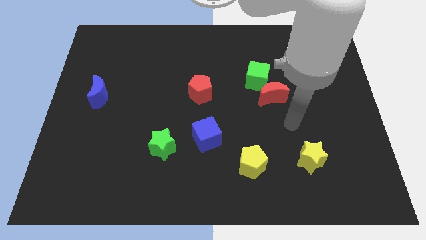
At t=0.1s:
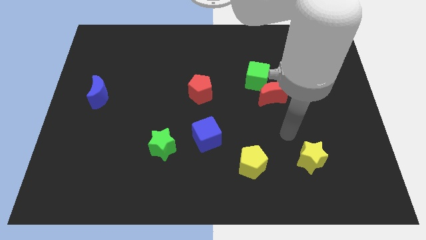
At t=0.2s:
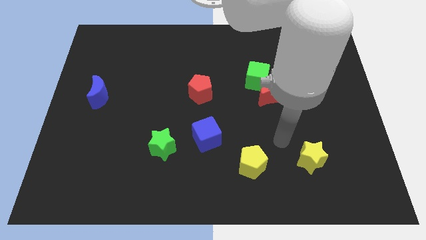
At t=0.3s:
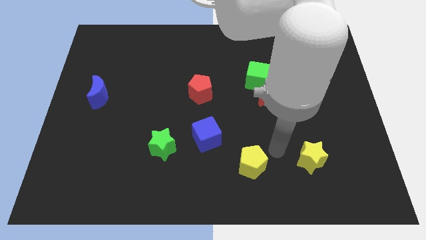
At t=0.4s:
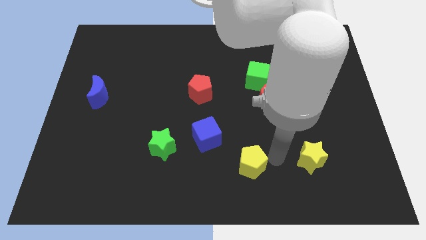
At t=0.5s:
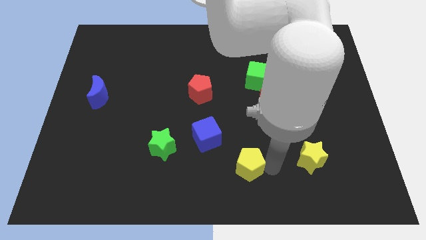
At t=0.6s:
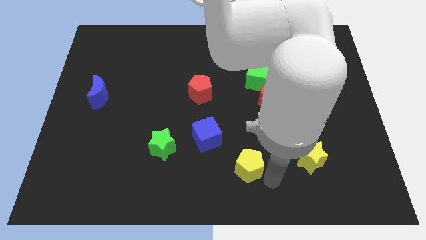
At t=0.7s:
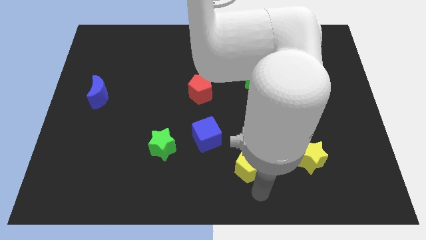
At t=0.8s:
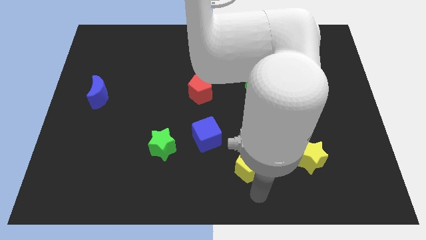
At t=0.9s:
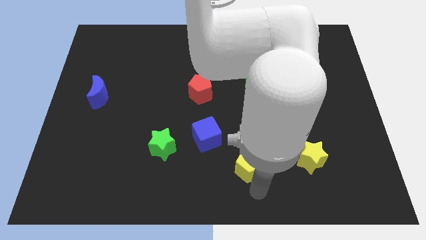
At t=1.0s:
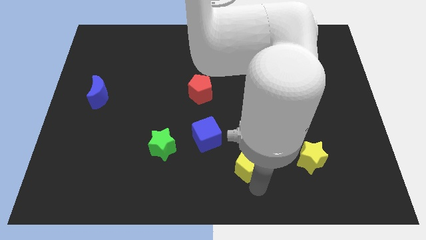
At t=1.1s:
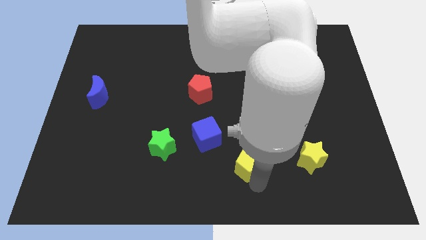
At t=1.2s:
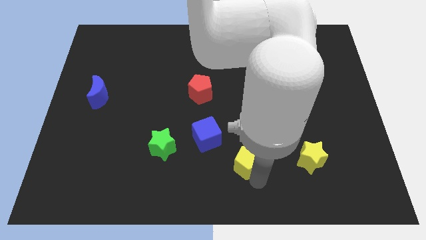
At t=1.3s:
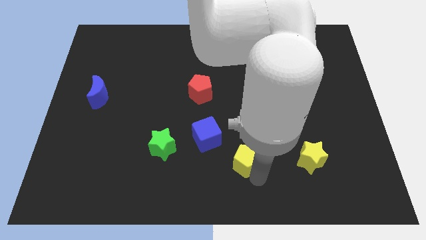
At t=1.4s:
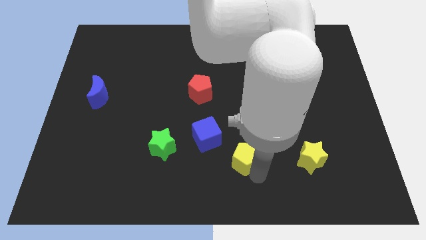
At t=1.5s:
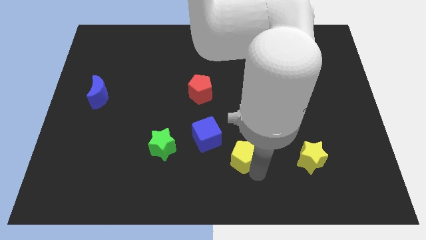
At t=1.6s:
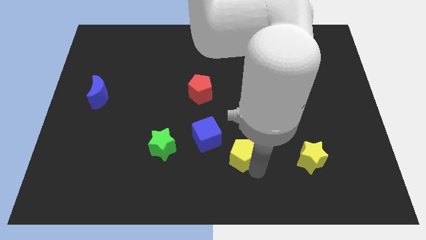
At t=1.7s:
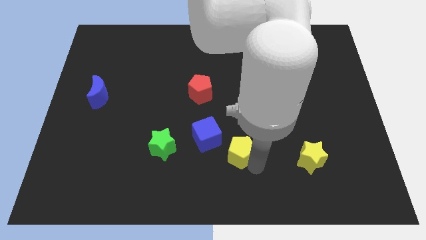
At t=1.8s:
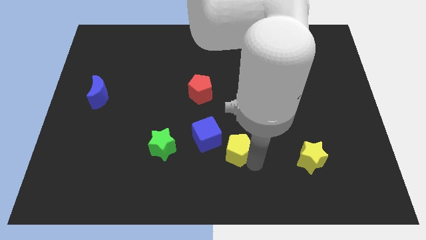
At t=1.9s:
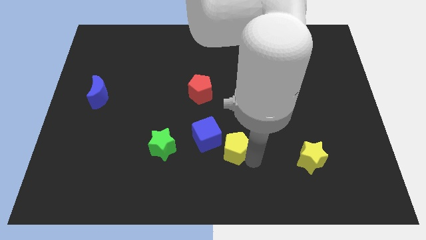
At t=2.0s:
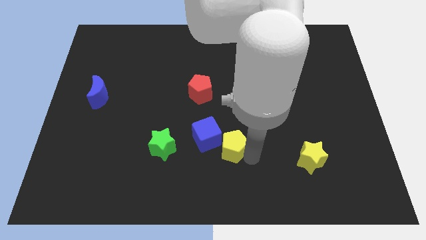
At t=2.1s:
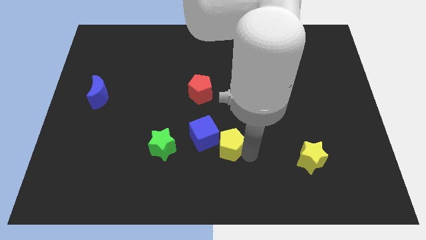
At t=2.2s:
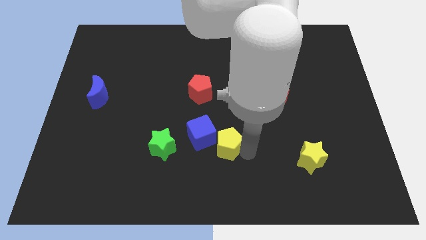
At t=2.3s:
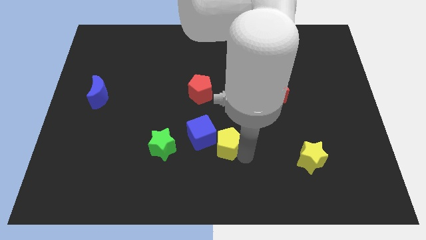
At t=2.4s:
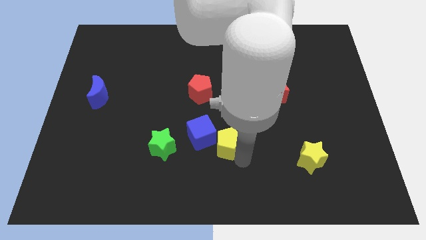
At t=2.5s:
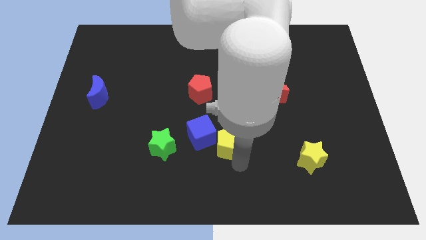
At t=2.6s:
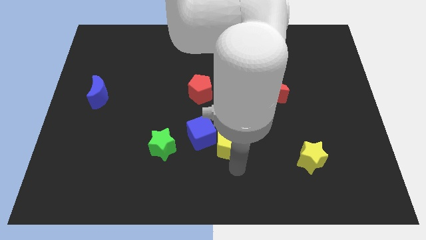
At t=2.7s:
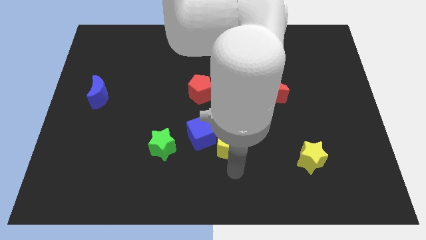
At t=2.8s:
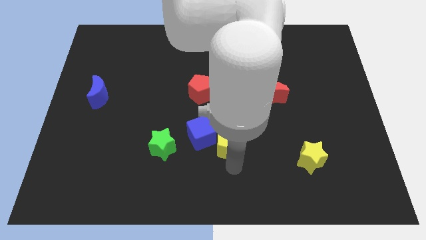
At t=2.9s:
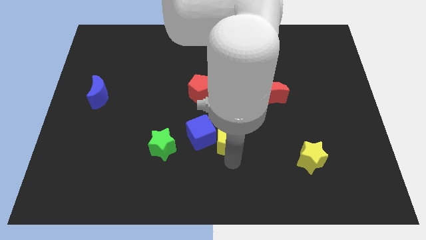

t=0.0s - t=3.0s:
push the yellow pentagon diagonally up and left somewhat

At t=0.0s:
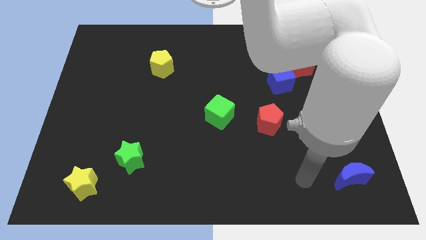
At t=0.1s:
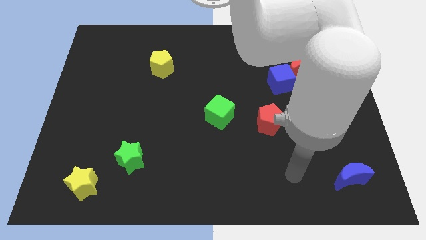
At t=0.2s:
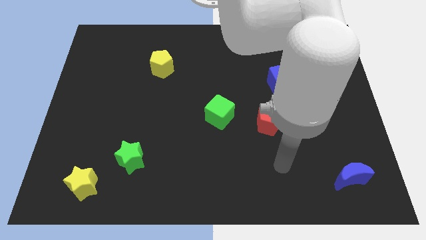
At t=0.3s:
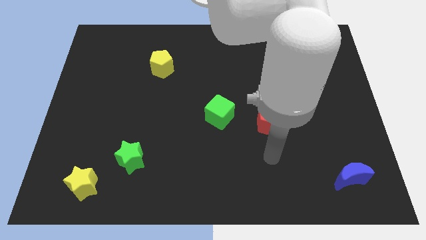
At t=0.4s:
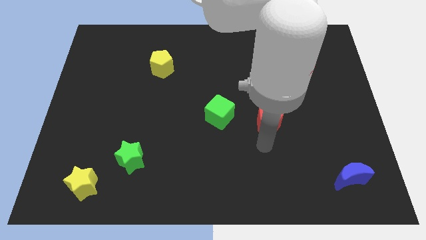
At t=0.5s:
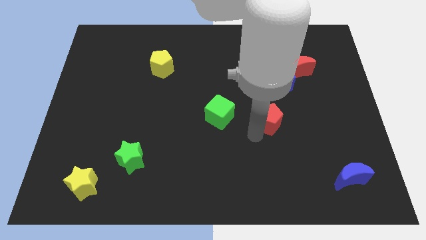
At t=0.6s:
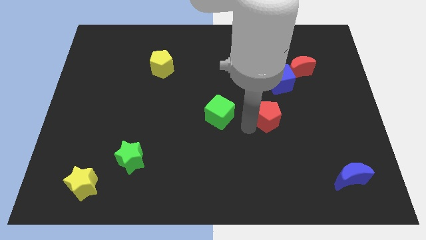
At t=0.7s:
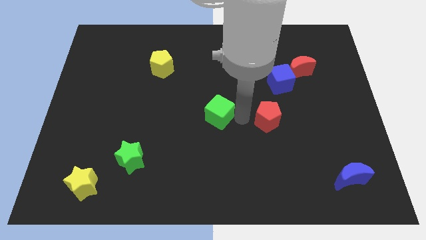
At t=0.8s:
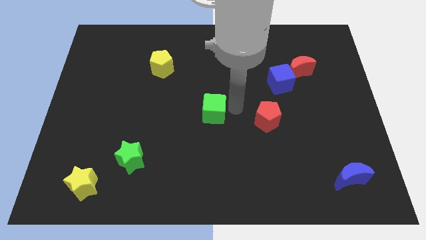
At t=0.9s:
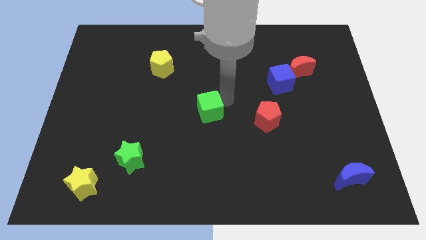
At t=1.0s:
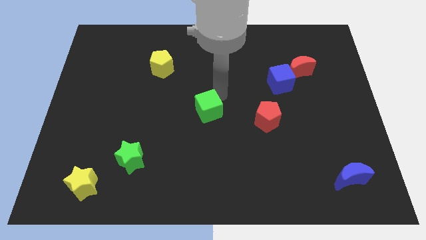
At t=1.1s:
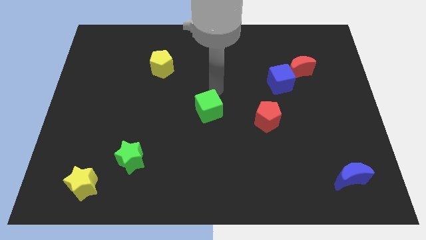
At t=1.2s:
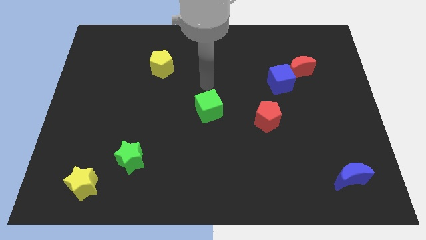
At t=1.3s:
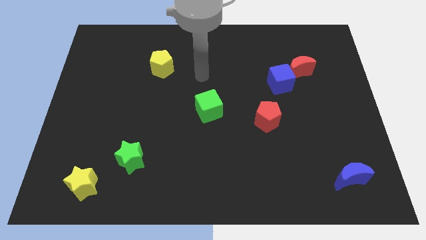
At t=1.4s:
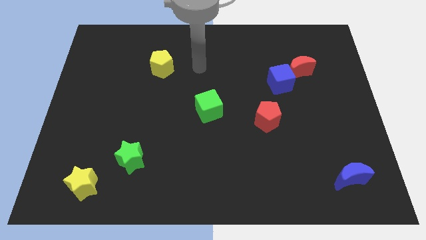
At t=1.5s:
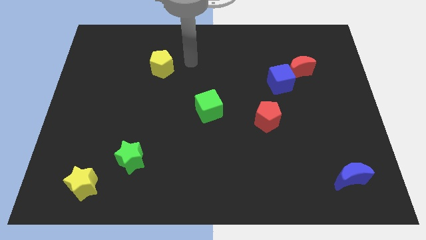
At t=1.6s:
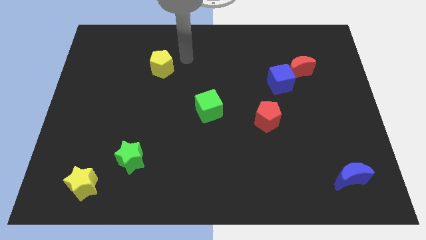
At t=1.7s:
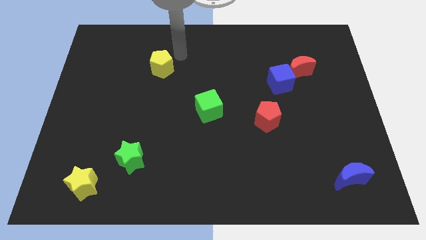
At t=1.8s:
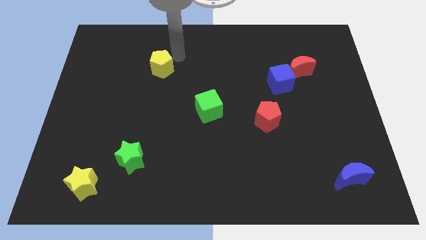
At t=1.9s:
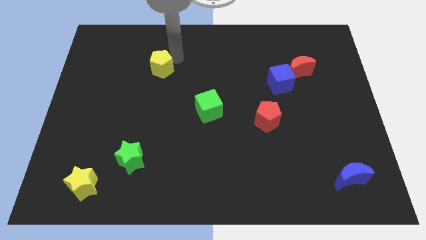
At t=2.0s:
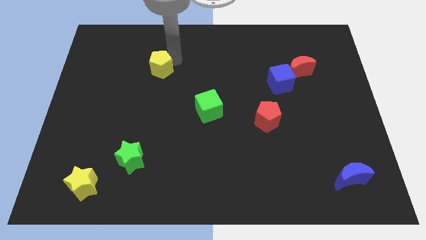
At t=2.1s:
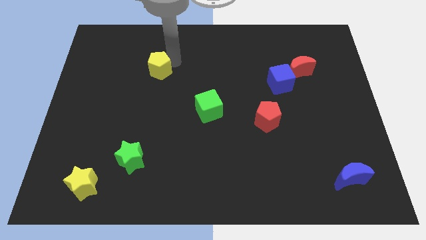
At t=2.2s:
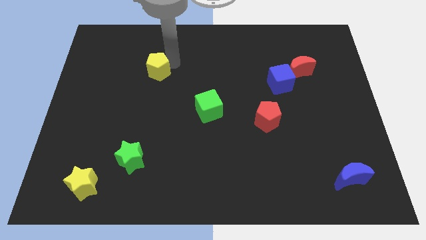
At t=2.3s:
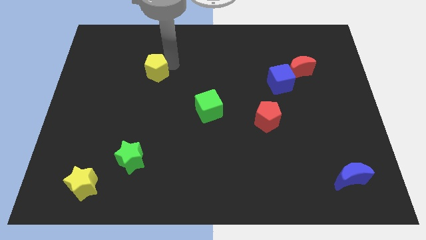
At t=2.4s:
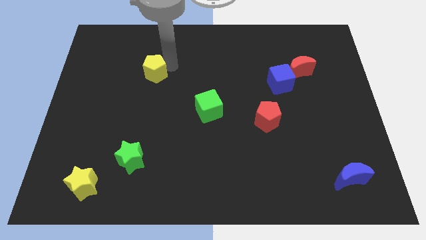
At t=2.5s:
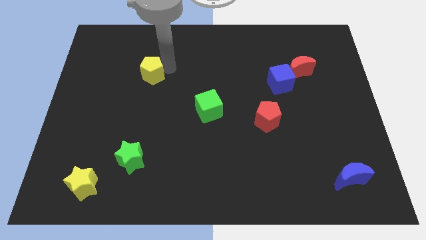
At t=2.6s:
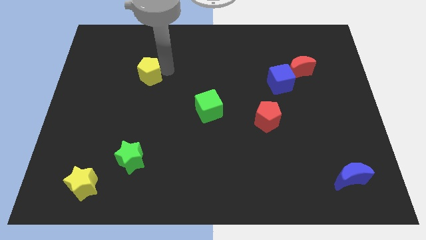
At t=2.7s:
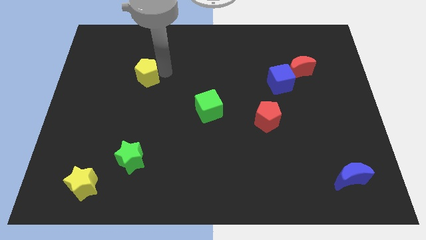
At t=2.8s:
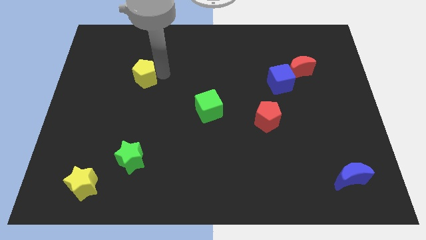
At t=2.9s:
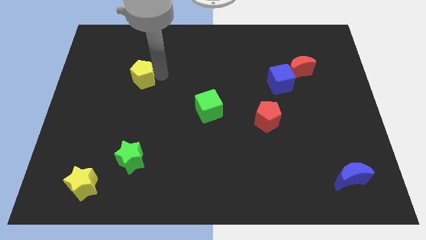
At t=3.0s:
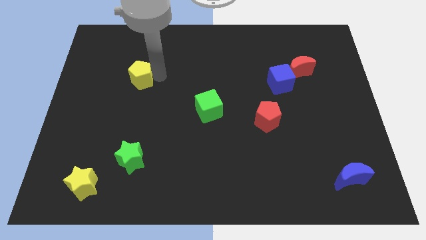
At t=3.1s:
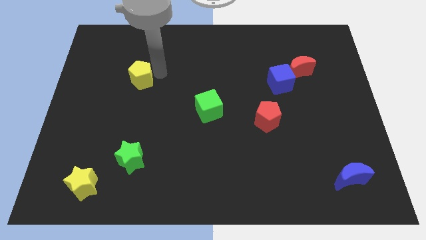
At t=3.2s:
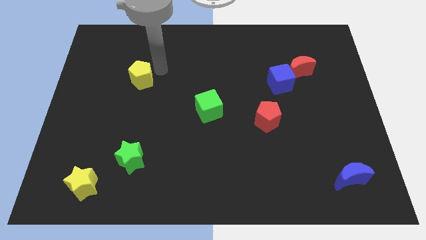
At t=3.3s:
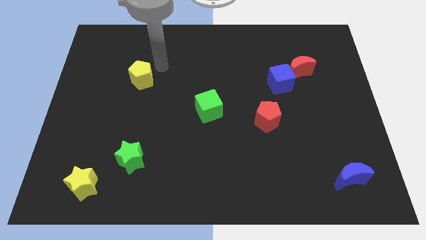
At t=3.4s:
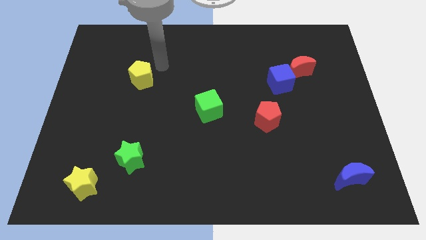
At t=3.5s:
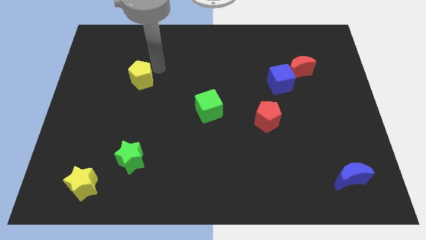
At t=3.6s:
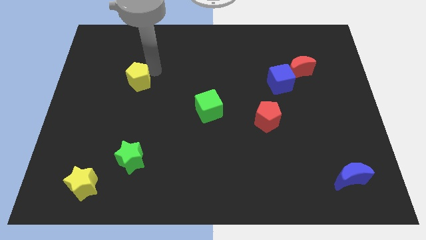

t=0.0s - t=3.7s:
push the yellow pentagon a little down and to the left

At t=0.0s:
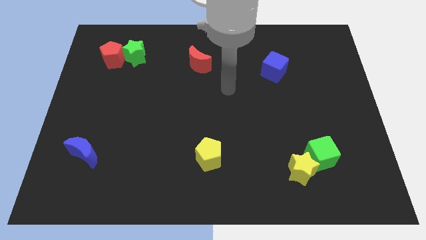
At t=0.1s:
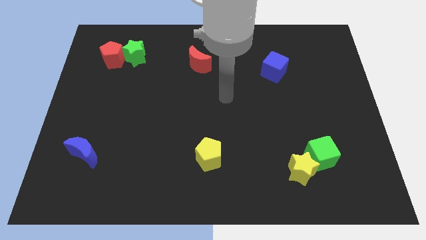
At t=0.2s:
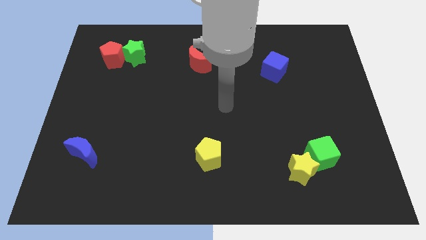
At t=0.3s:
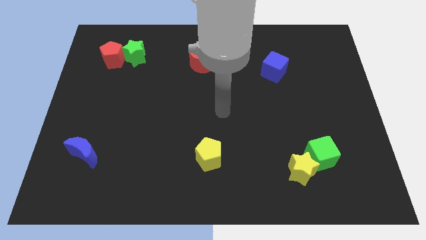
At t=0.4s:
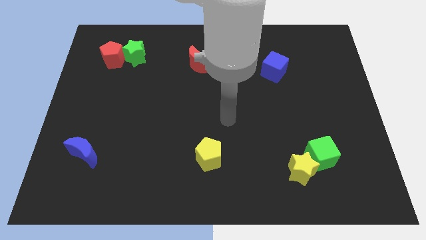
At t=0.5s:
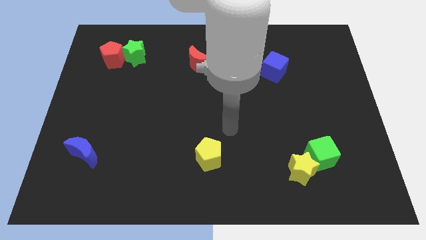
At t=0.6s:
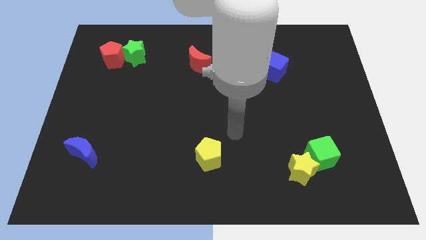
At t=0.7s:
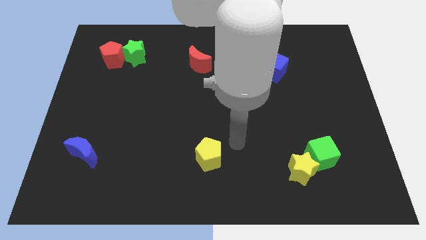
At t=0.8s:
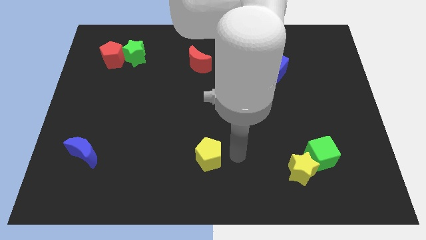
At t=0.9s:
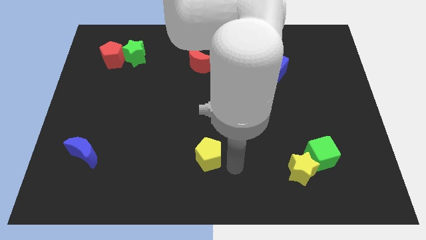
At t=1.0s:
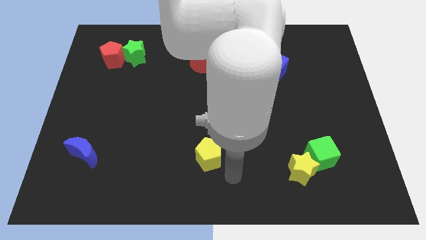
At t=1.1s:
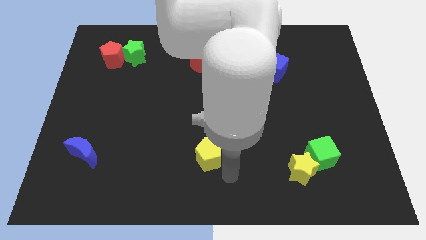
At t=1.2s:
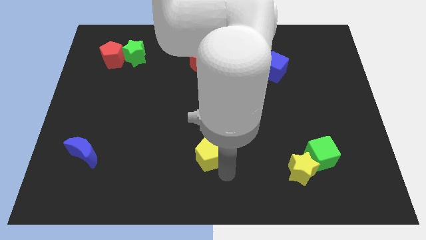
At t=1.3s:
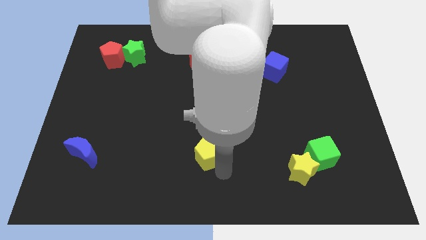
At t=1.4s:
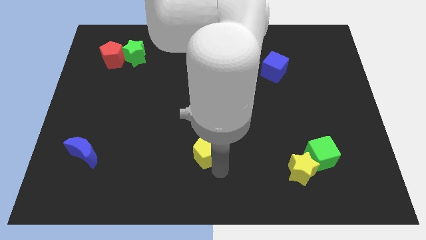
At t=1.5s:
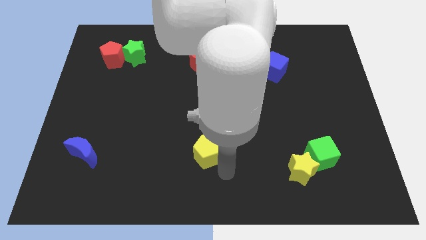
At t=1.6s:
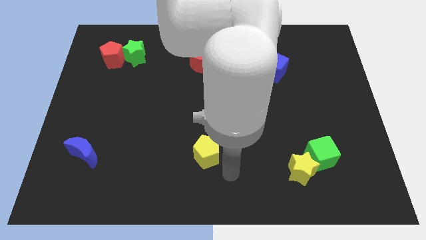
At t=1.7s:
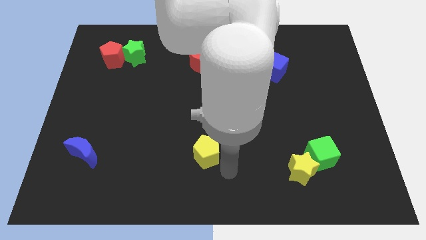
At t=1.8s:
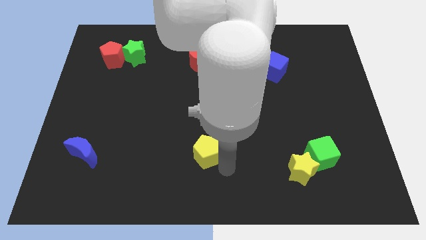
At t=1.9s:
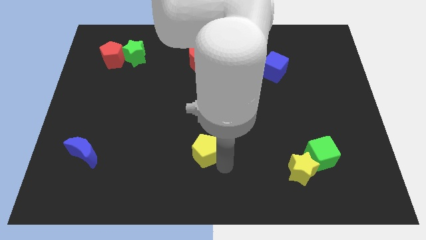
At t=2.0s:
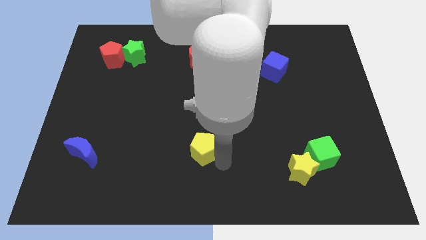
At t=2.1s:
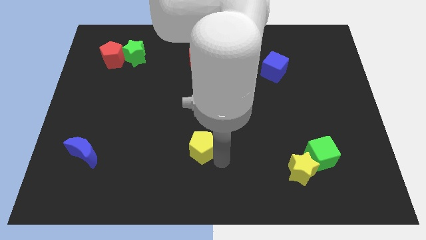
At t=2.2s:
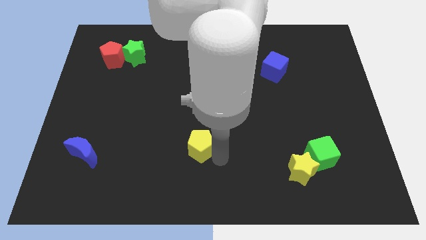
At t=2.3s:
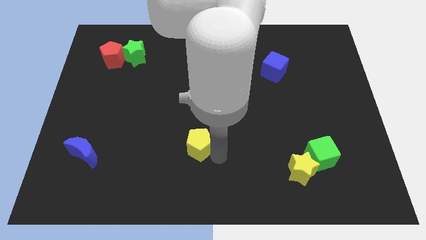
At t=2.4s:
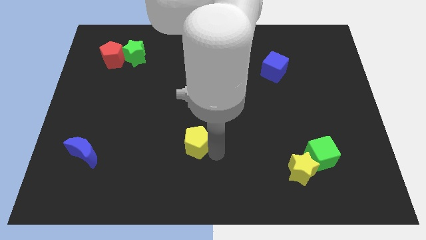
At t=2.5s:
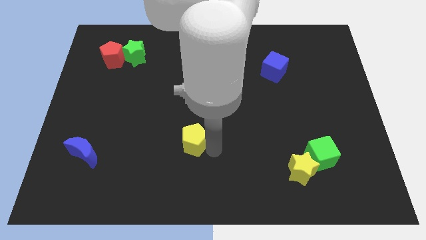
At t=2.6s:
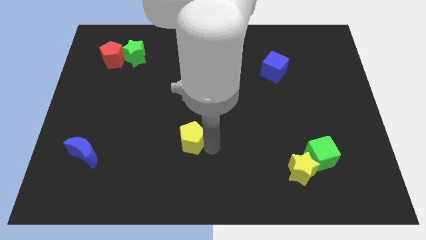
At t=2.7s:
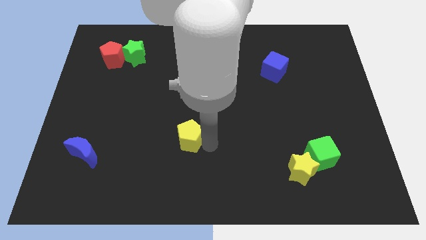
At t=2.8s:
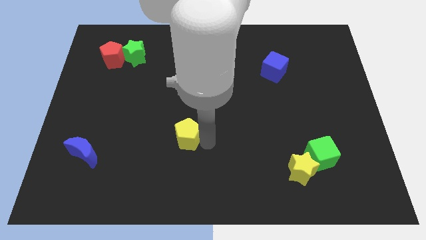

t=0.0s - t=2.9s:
push the yellow pentagon up and then left somewhat
